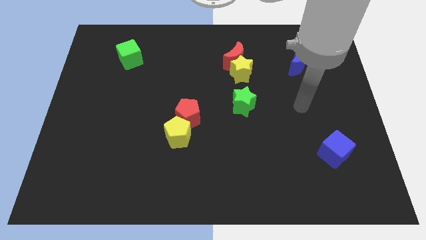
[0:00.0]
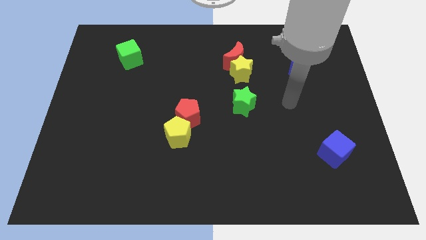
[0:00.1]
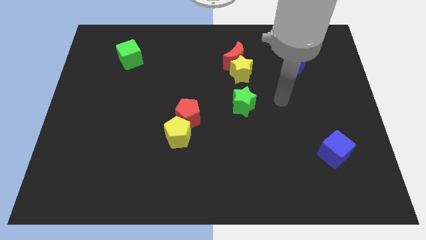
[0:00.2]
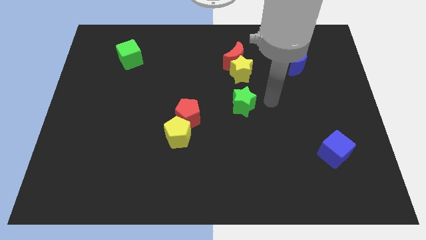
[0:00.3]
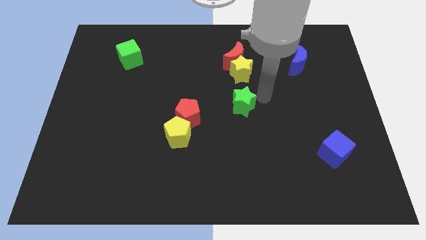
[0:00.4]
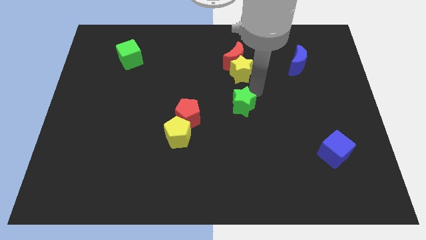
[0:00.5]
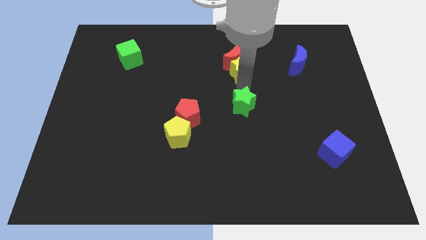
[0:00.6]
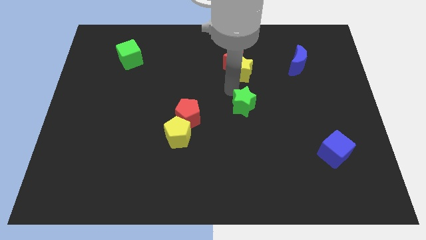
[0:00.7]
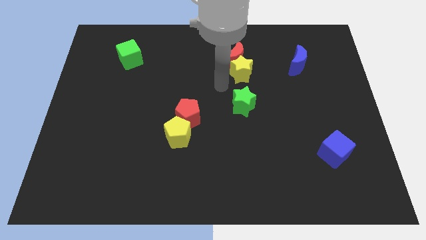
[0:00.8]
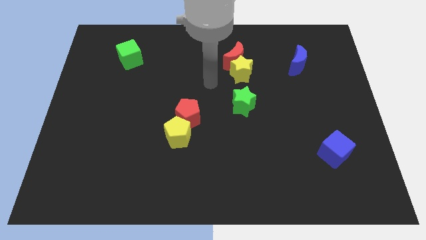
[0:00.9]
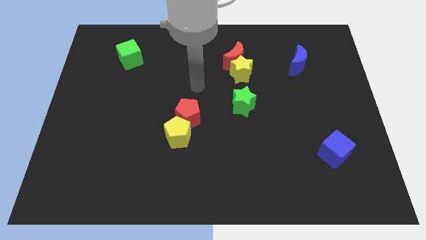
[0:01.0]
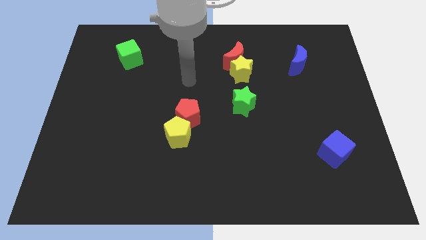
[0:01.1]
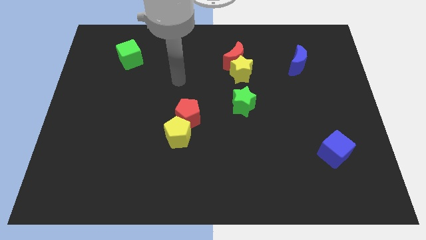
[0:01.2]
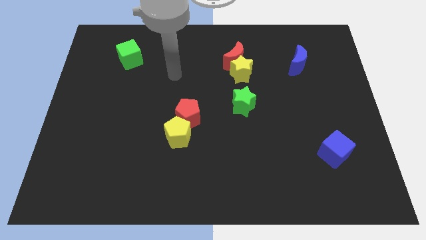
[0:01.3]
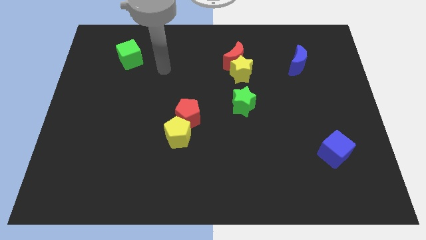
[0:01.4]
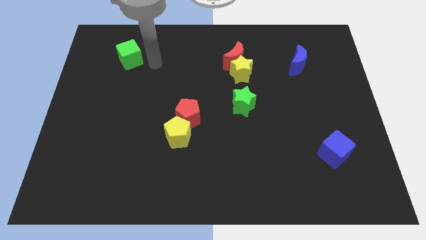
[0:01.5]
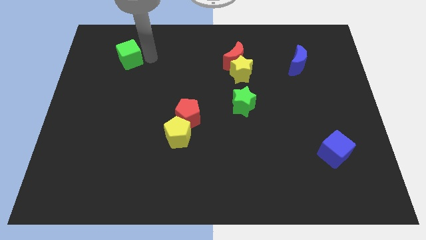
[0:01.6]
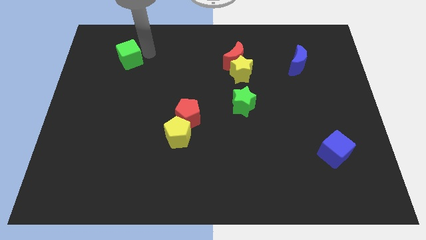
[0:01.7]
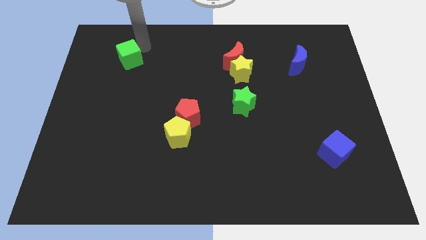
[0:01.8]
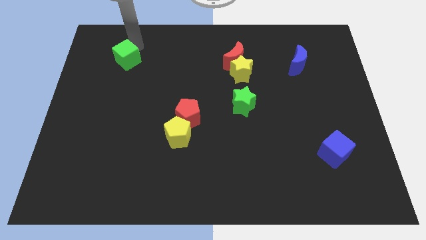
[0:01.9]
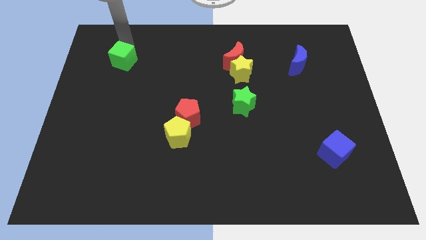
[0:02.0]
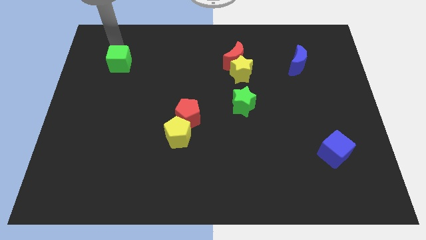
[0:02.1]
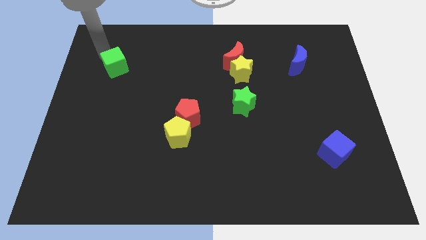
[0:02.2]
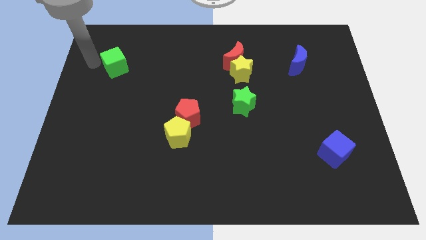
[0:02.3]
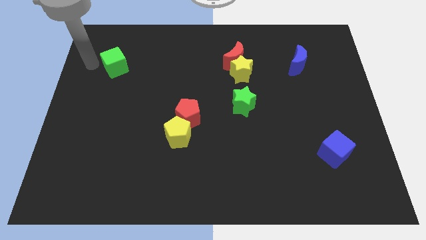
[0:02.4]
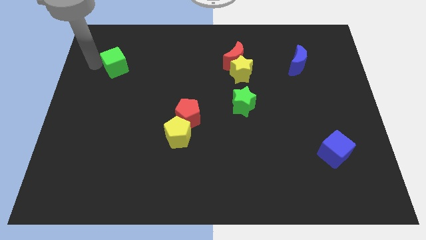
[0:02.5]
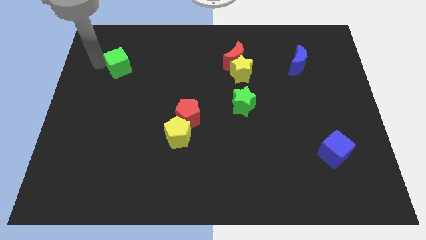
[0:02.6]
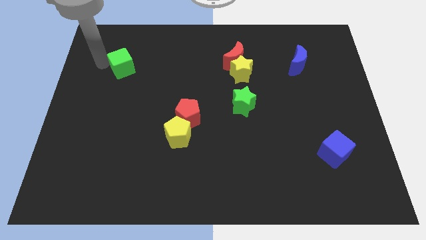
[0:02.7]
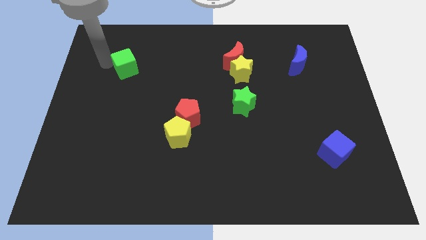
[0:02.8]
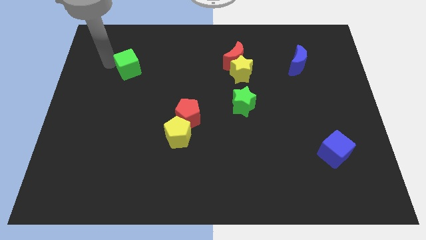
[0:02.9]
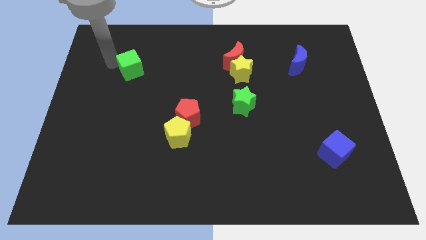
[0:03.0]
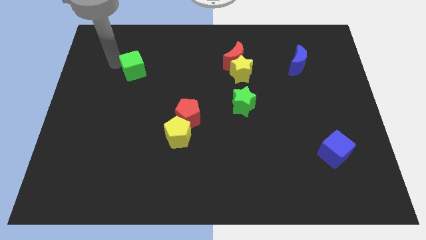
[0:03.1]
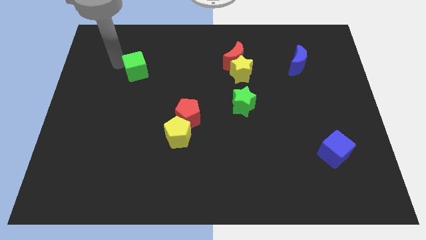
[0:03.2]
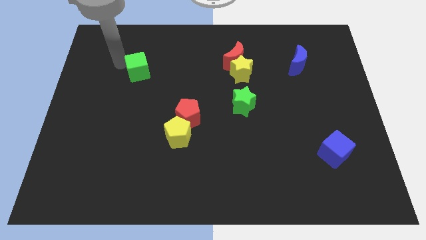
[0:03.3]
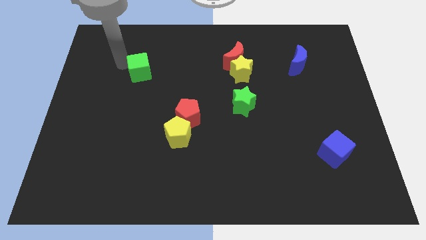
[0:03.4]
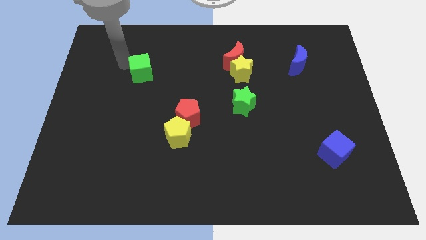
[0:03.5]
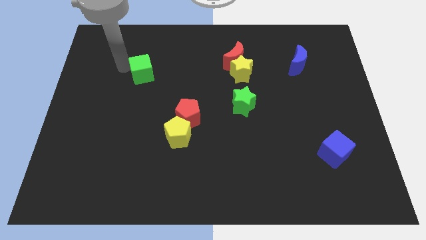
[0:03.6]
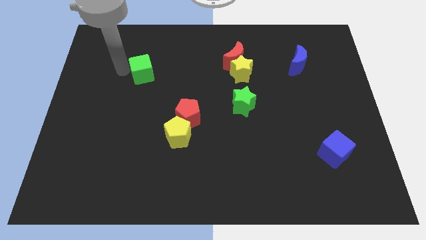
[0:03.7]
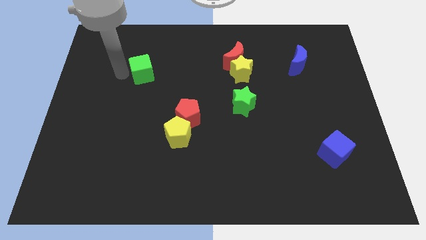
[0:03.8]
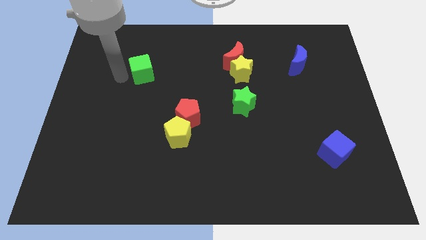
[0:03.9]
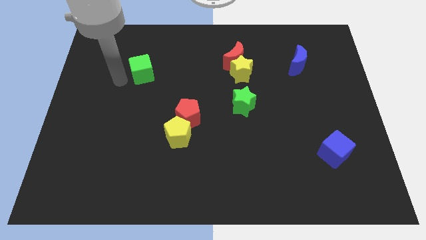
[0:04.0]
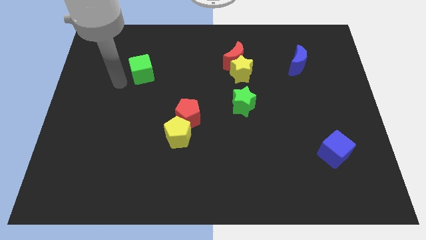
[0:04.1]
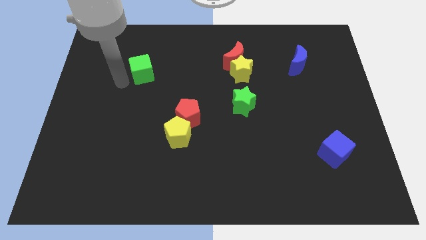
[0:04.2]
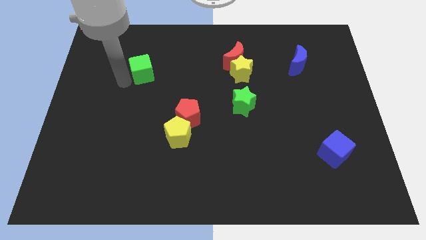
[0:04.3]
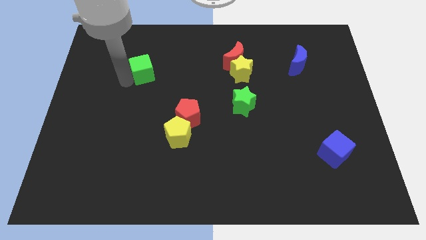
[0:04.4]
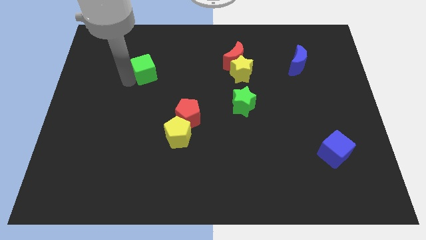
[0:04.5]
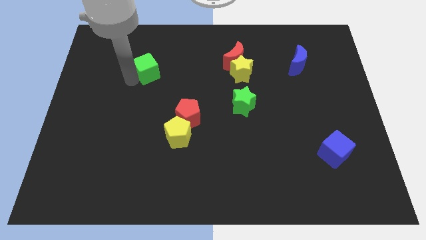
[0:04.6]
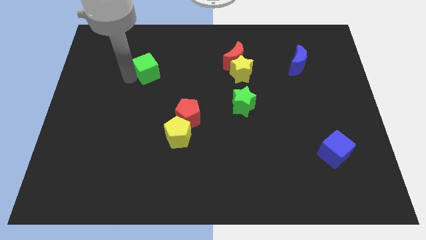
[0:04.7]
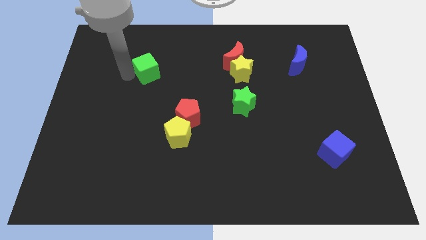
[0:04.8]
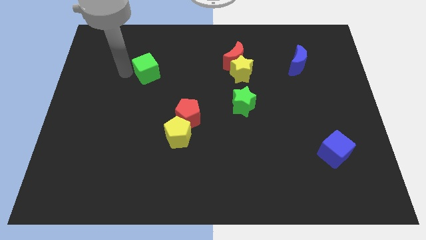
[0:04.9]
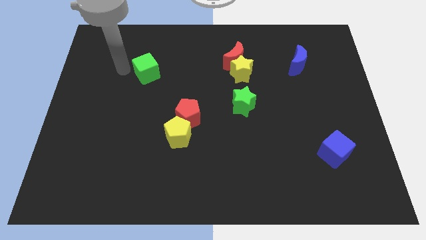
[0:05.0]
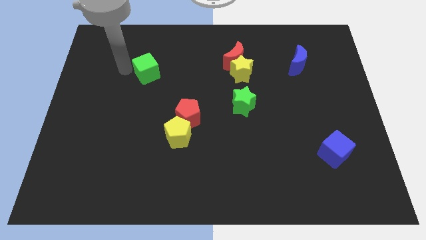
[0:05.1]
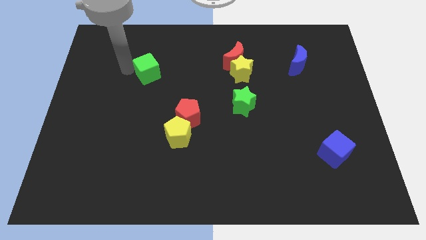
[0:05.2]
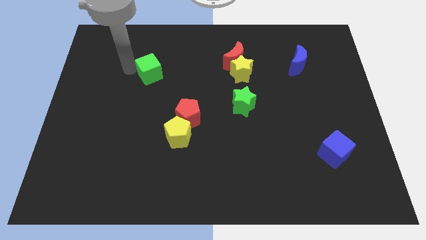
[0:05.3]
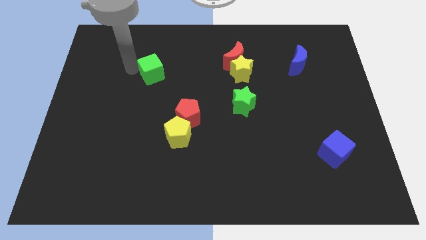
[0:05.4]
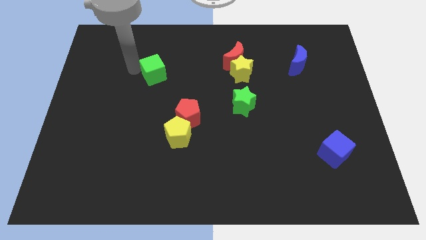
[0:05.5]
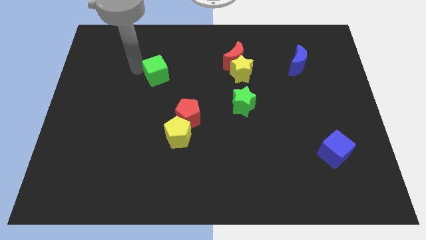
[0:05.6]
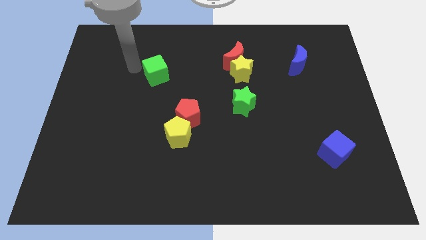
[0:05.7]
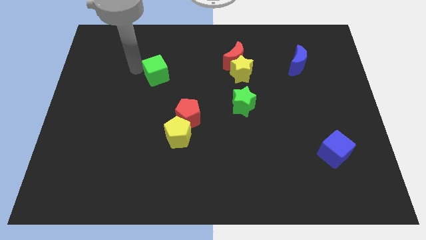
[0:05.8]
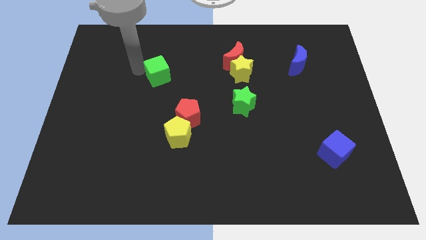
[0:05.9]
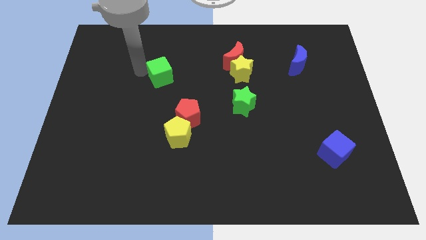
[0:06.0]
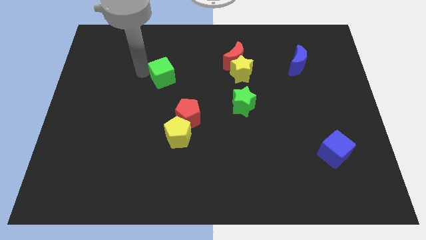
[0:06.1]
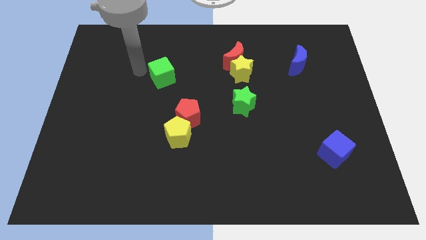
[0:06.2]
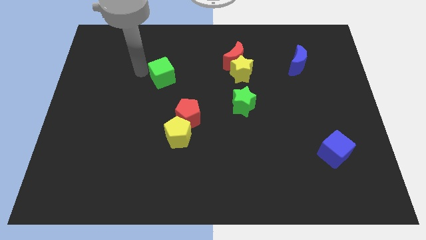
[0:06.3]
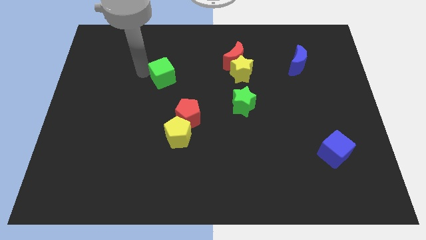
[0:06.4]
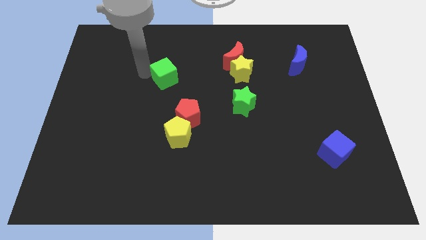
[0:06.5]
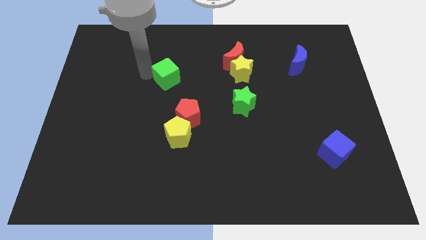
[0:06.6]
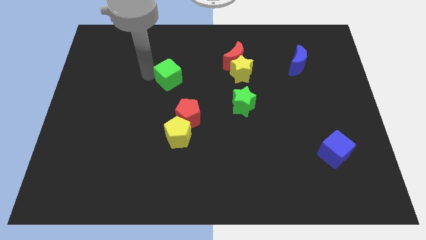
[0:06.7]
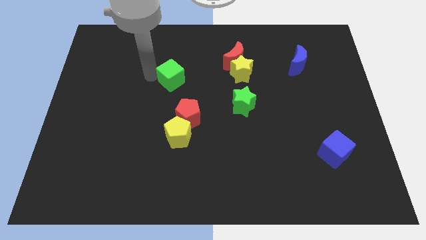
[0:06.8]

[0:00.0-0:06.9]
move the green cube to the center of the board
